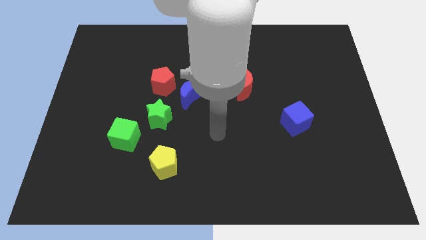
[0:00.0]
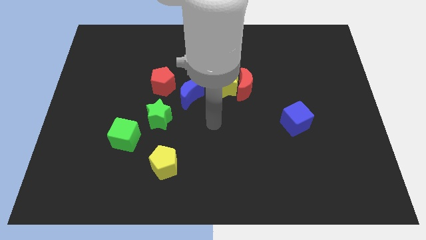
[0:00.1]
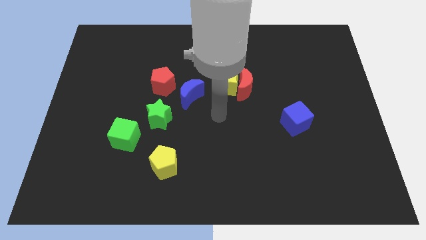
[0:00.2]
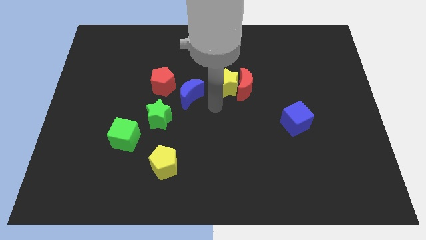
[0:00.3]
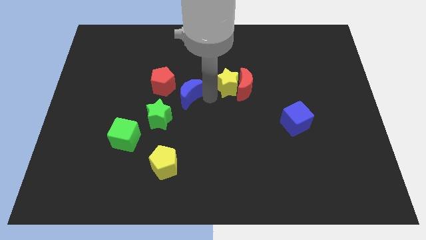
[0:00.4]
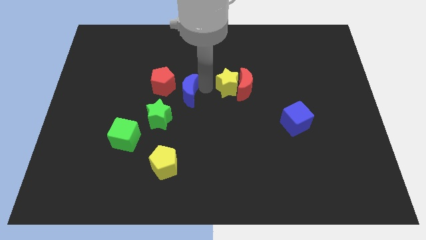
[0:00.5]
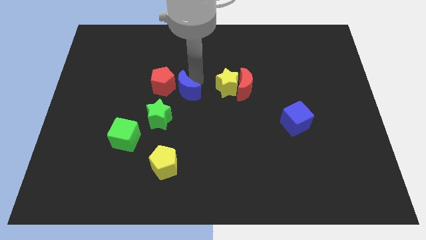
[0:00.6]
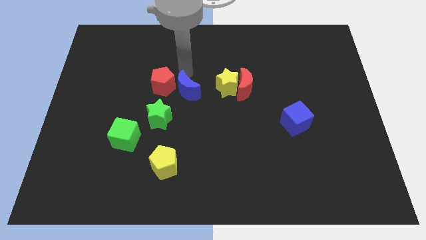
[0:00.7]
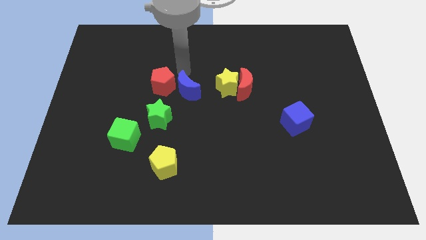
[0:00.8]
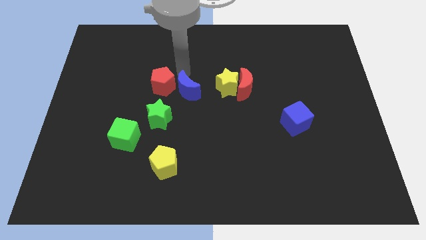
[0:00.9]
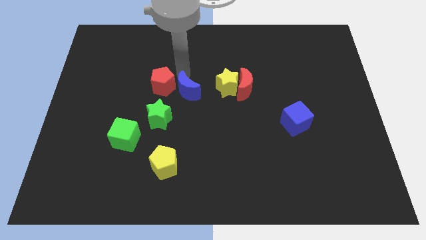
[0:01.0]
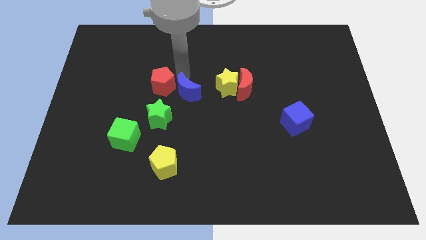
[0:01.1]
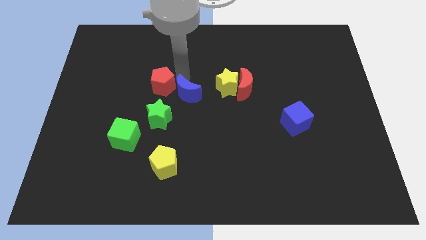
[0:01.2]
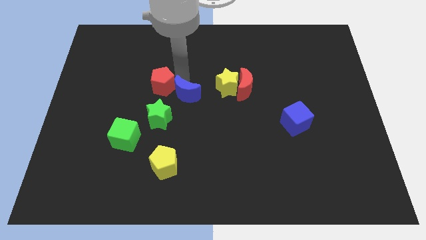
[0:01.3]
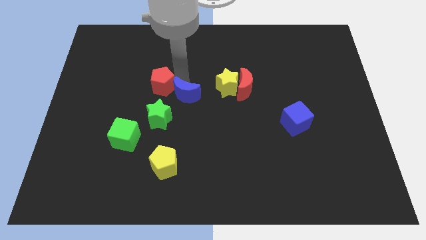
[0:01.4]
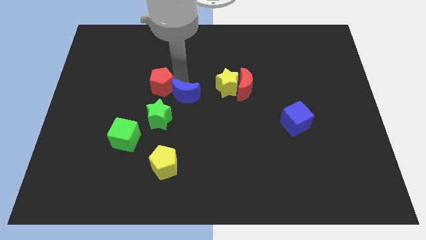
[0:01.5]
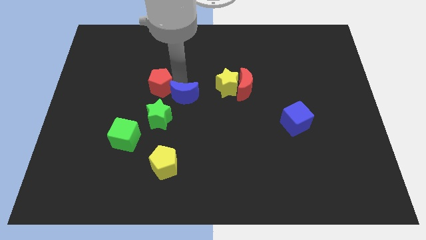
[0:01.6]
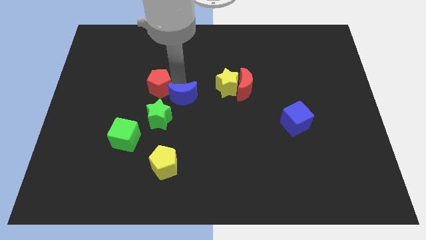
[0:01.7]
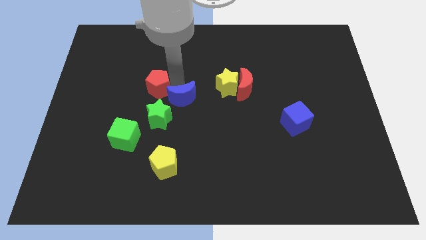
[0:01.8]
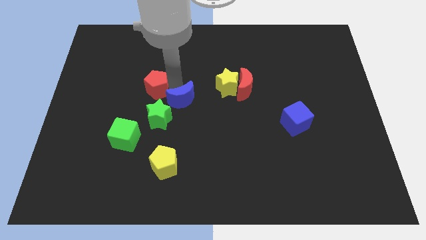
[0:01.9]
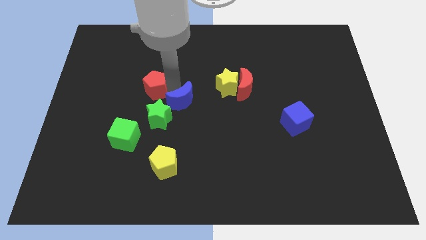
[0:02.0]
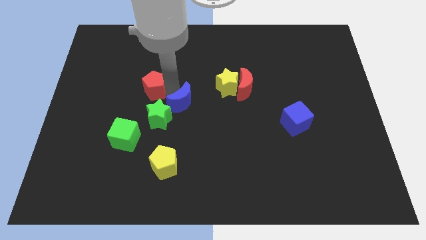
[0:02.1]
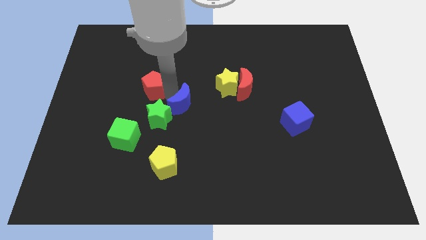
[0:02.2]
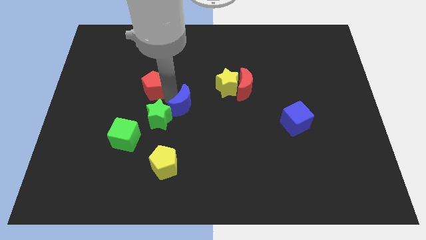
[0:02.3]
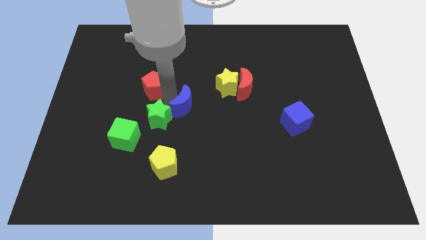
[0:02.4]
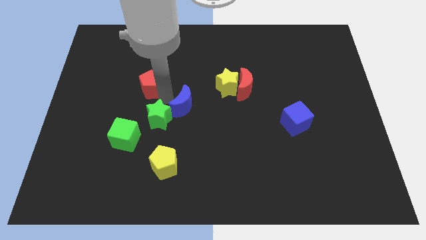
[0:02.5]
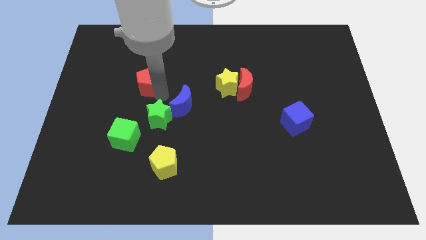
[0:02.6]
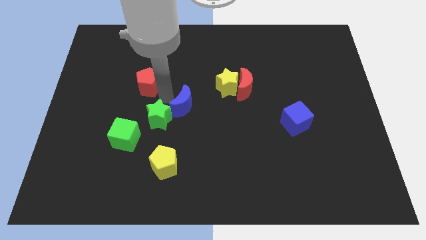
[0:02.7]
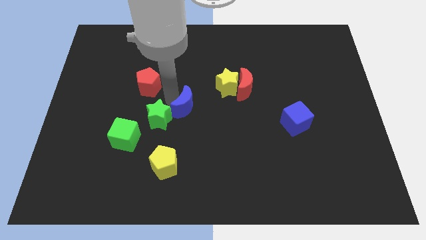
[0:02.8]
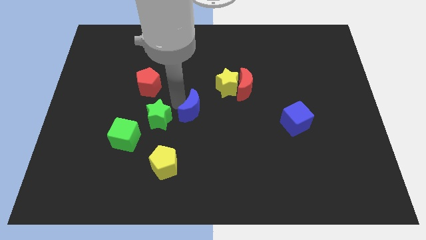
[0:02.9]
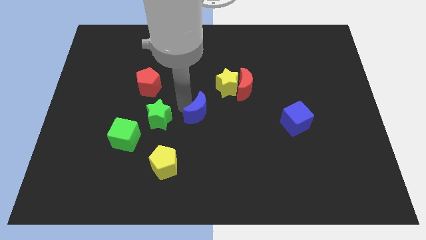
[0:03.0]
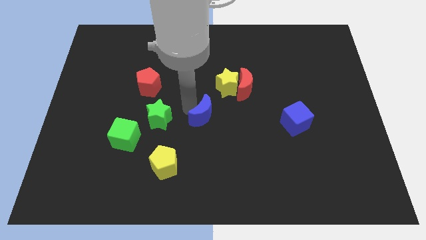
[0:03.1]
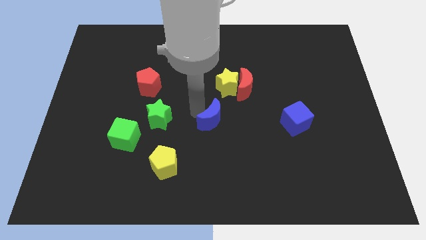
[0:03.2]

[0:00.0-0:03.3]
move the blue moon downwards and to the right diagonally a little bit

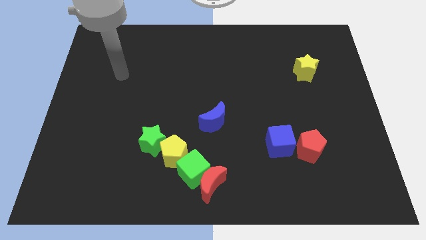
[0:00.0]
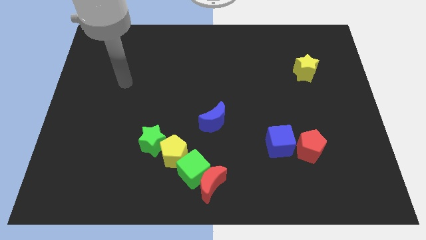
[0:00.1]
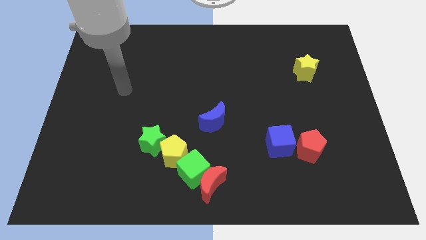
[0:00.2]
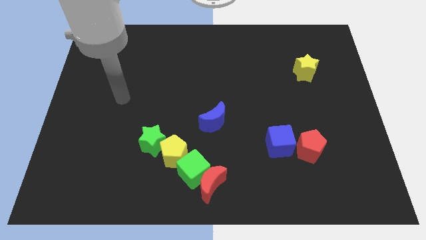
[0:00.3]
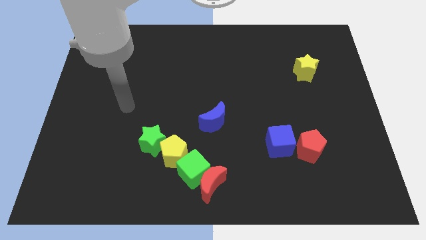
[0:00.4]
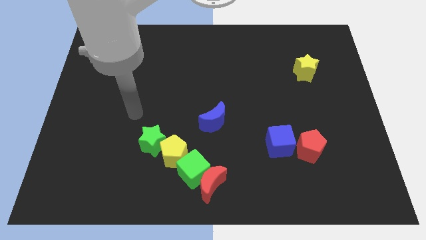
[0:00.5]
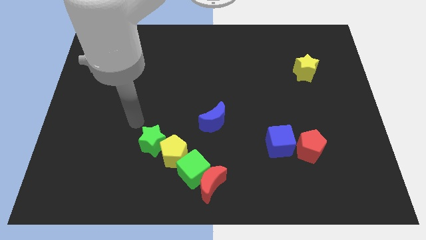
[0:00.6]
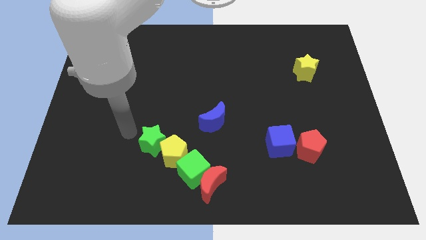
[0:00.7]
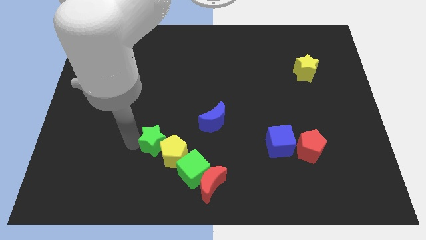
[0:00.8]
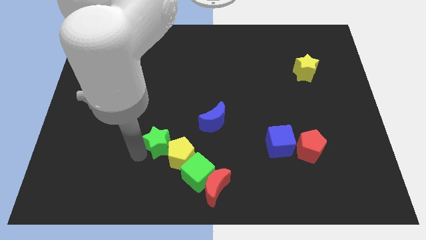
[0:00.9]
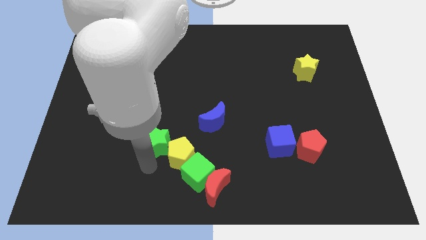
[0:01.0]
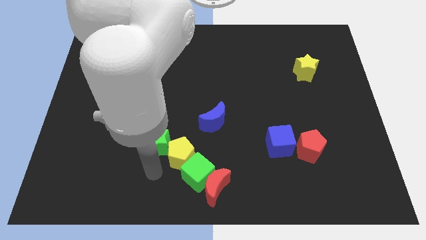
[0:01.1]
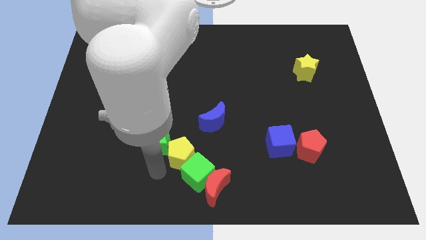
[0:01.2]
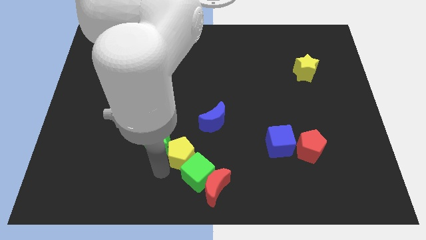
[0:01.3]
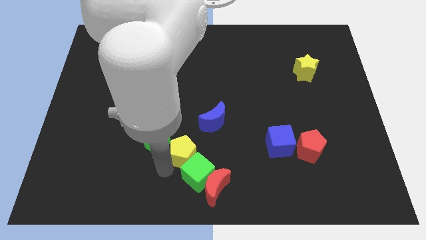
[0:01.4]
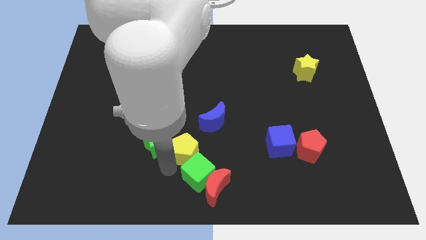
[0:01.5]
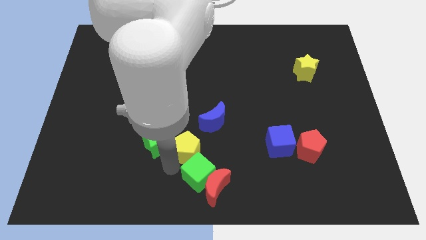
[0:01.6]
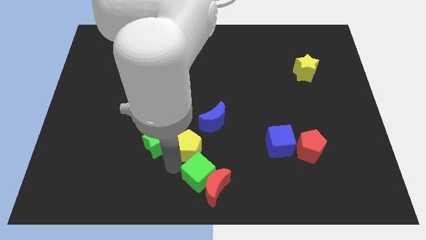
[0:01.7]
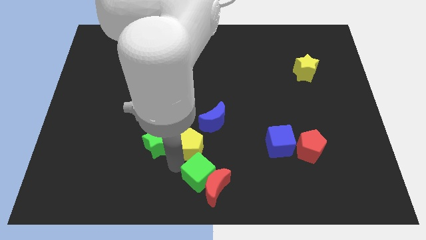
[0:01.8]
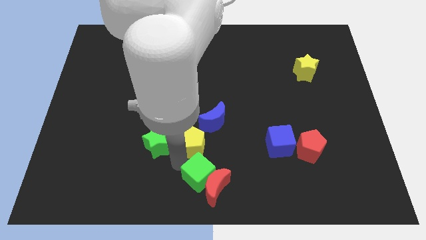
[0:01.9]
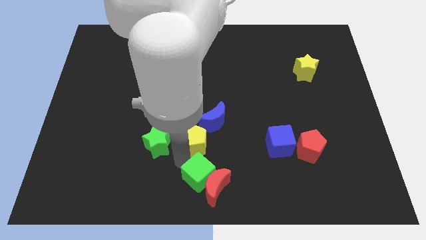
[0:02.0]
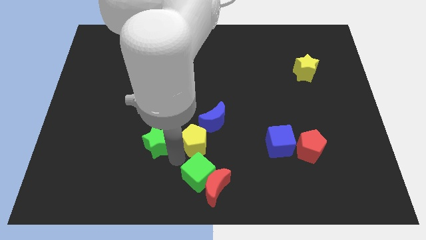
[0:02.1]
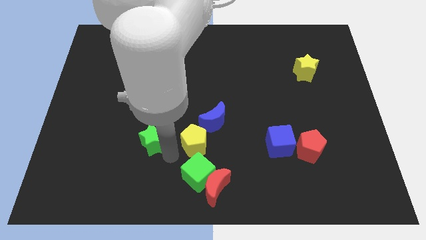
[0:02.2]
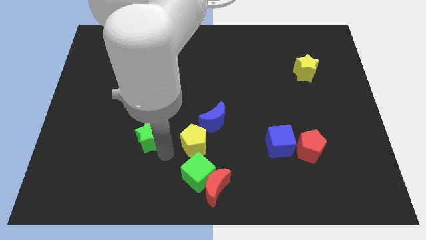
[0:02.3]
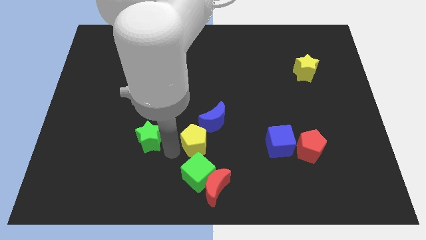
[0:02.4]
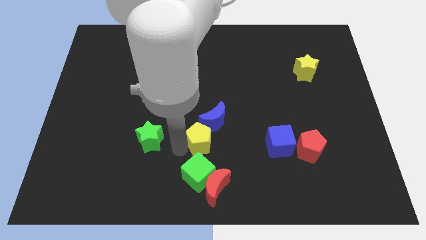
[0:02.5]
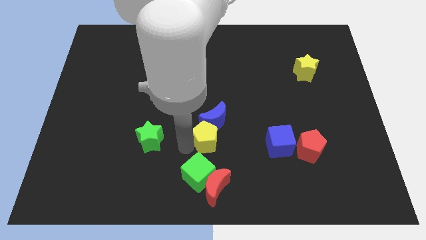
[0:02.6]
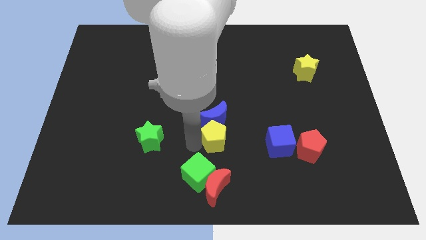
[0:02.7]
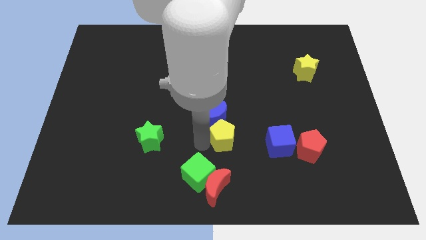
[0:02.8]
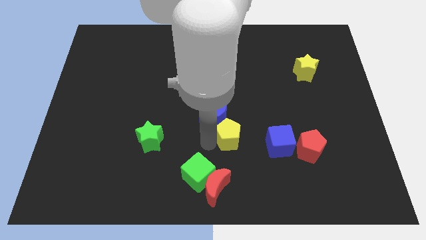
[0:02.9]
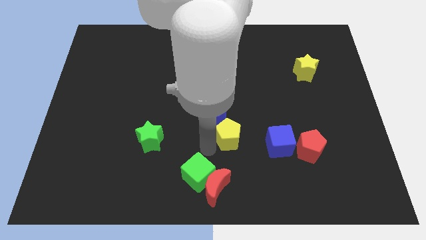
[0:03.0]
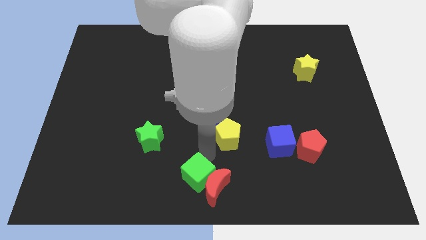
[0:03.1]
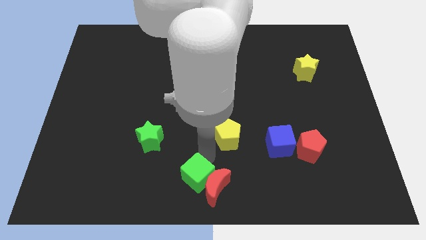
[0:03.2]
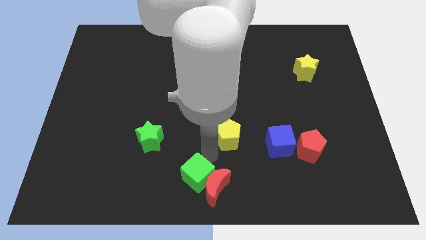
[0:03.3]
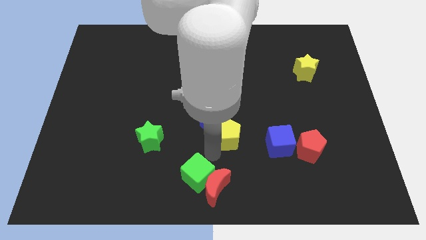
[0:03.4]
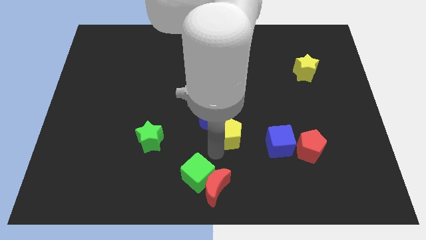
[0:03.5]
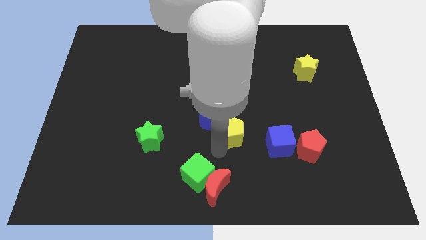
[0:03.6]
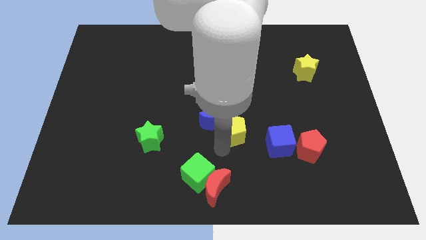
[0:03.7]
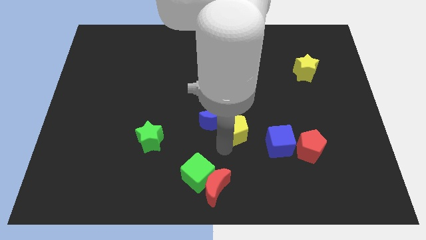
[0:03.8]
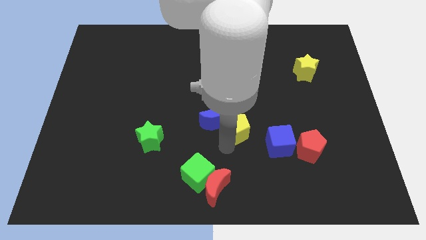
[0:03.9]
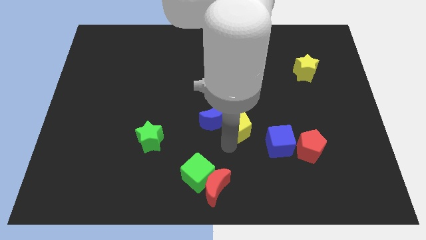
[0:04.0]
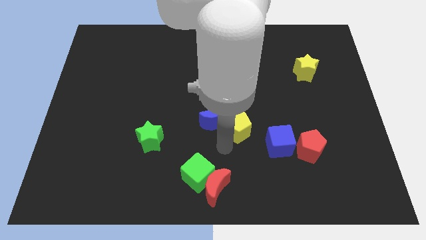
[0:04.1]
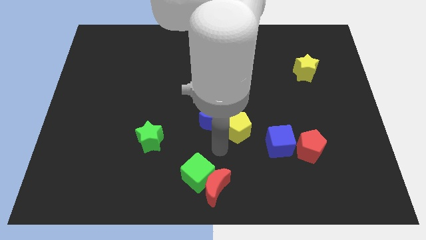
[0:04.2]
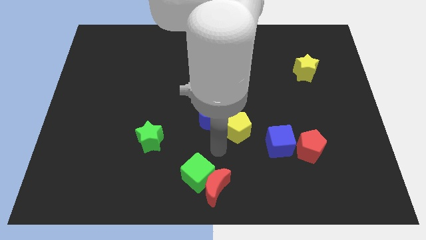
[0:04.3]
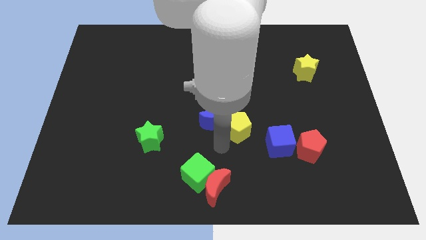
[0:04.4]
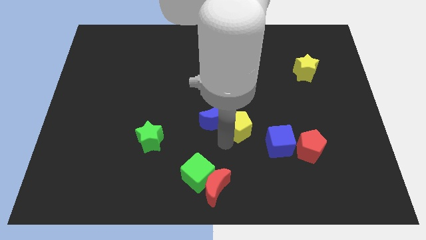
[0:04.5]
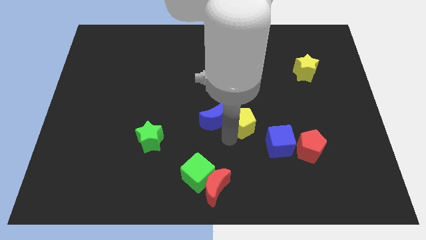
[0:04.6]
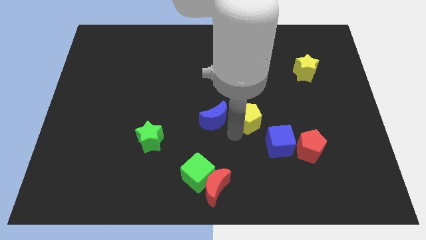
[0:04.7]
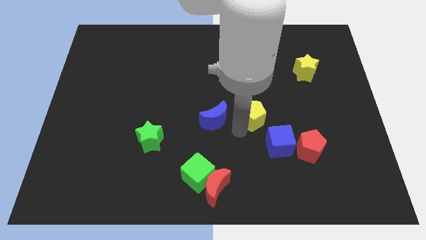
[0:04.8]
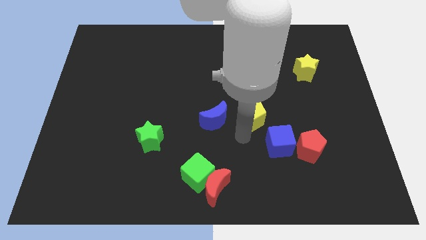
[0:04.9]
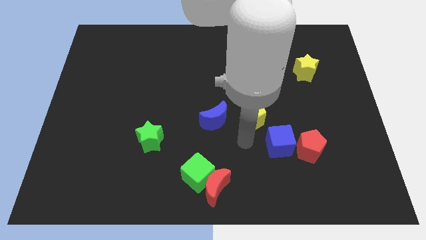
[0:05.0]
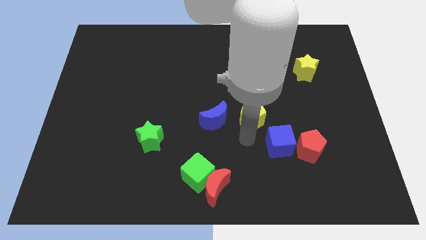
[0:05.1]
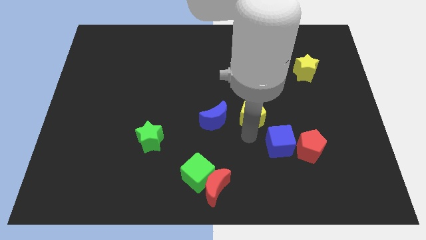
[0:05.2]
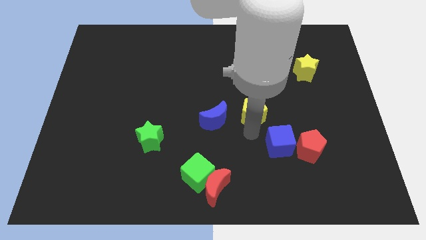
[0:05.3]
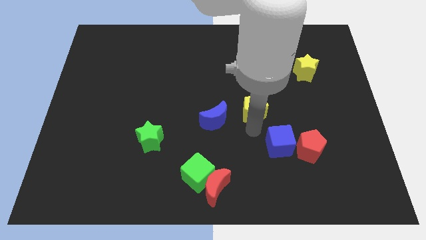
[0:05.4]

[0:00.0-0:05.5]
push the yellow pentagon upwards and then to the right
